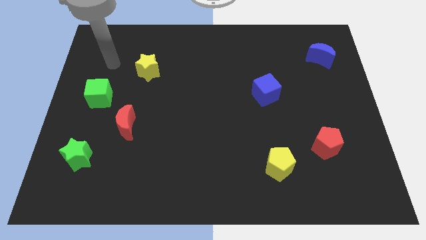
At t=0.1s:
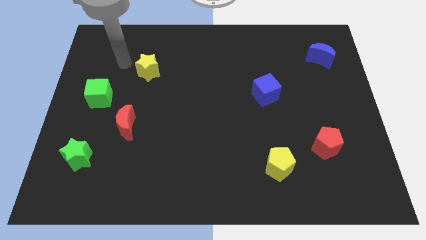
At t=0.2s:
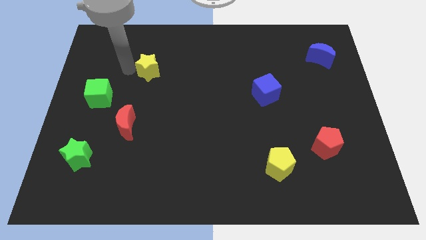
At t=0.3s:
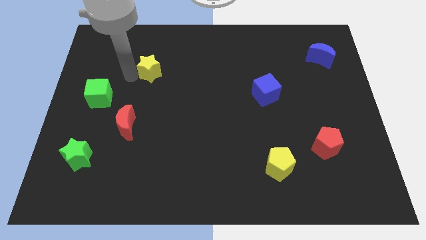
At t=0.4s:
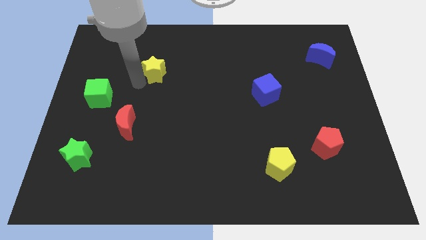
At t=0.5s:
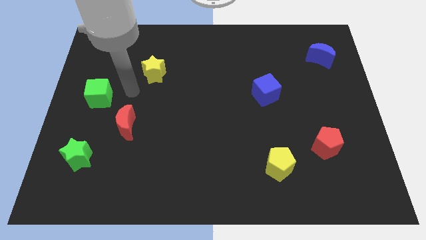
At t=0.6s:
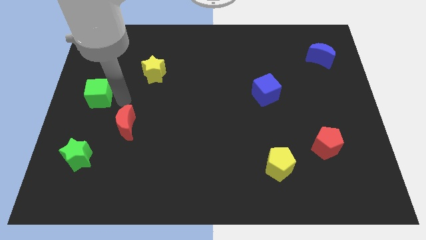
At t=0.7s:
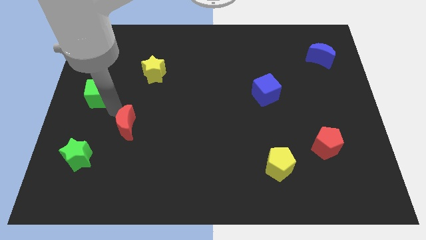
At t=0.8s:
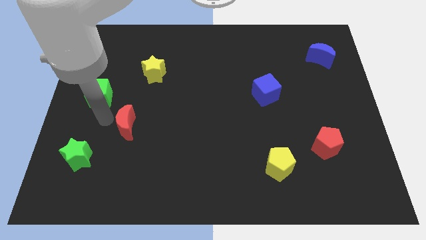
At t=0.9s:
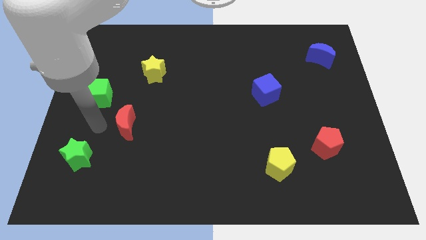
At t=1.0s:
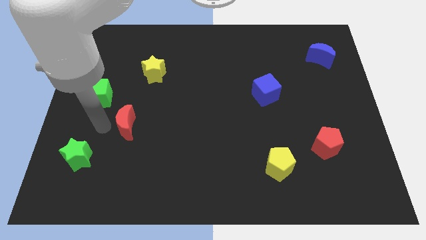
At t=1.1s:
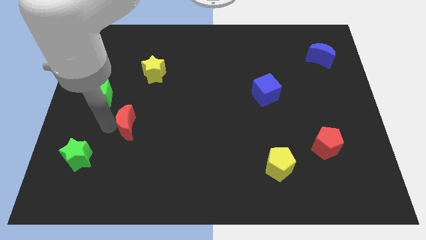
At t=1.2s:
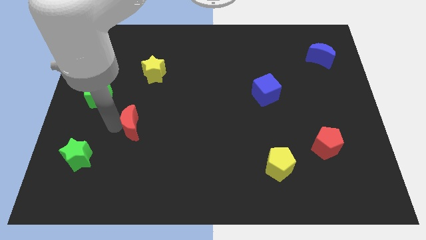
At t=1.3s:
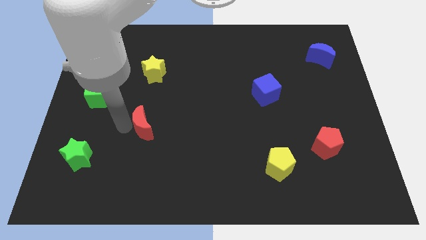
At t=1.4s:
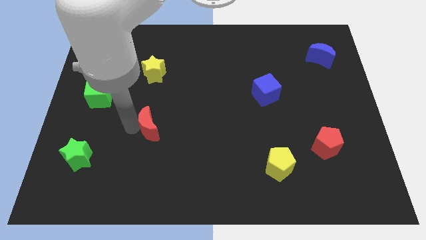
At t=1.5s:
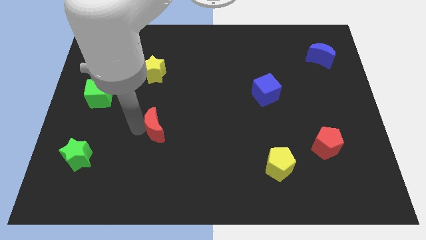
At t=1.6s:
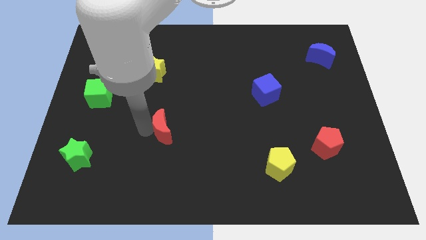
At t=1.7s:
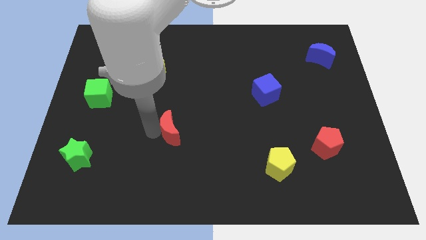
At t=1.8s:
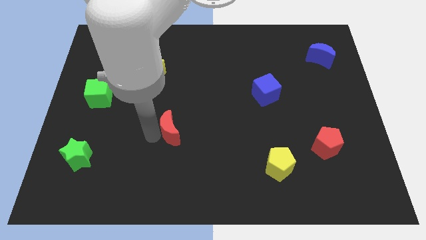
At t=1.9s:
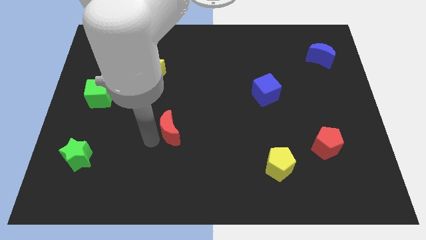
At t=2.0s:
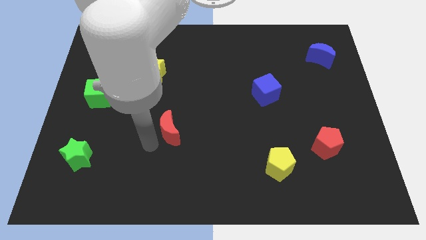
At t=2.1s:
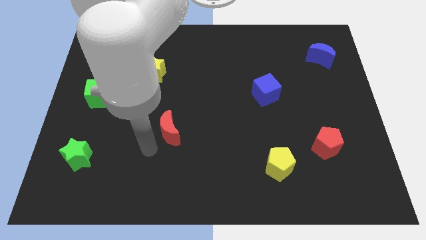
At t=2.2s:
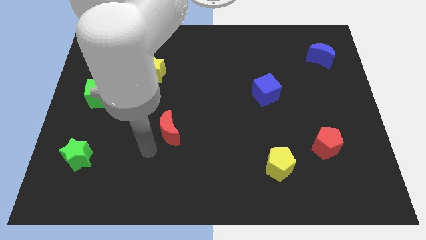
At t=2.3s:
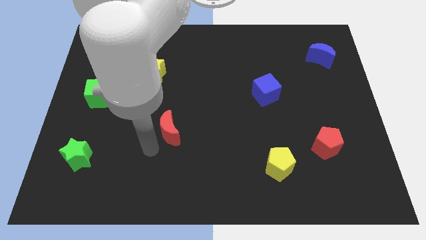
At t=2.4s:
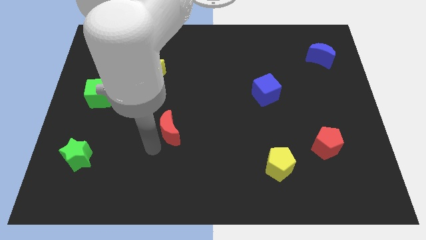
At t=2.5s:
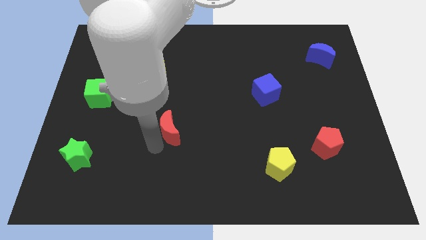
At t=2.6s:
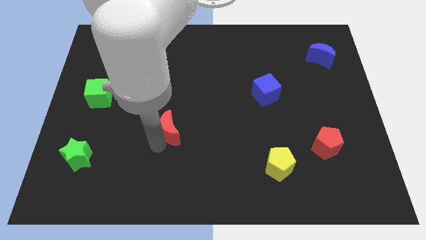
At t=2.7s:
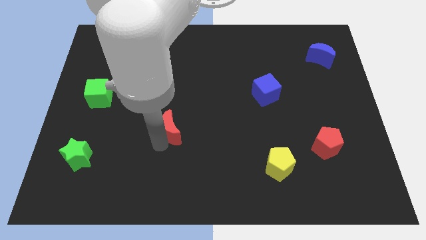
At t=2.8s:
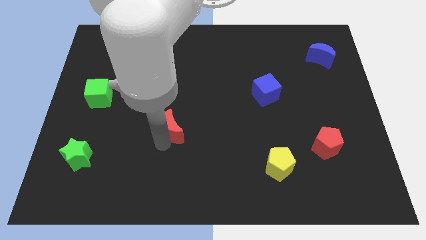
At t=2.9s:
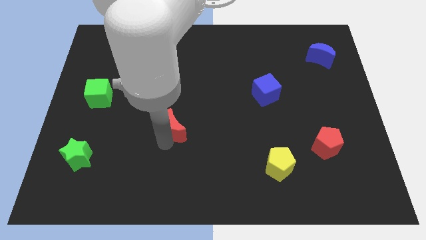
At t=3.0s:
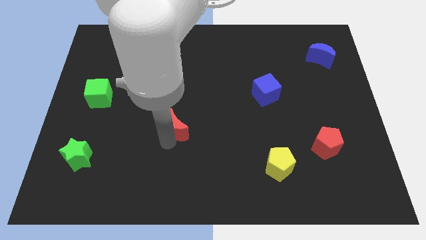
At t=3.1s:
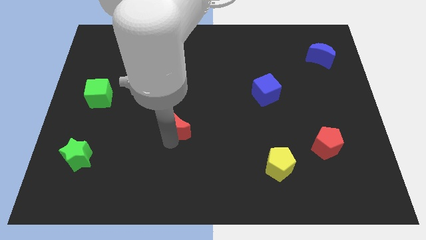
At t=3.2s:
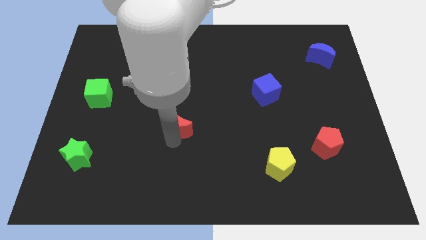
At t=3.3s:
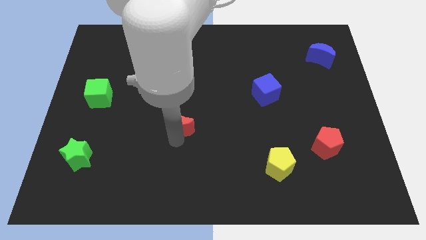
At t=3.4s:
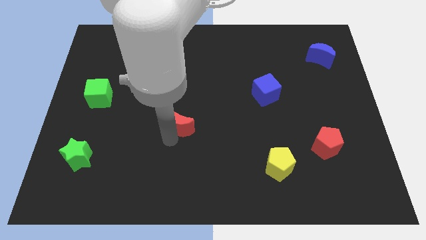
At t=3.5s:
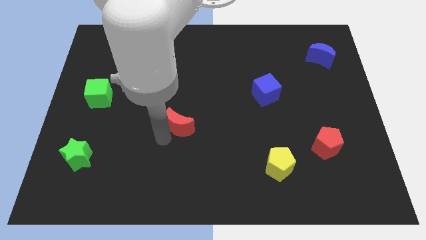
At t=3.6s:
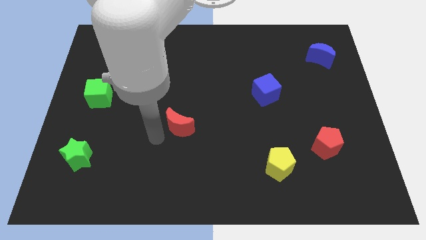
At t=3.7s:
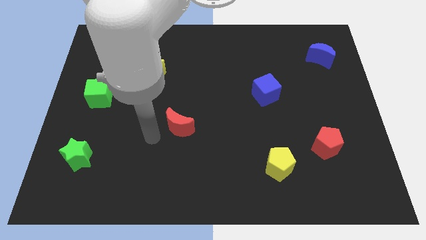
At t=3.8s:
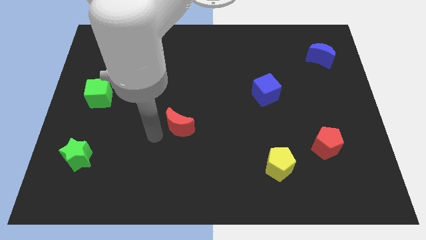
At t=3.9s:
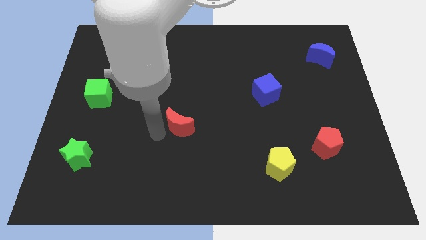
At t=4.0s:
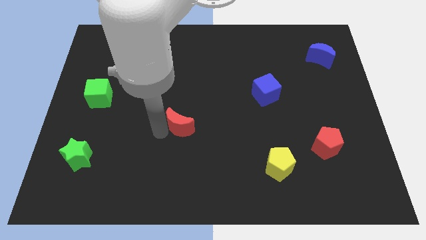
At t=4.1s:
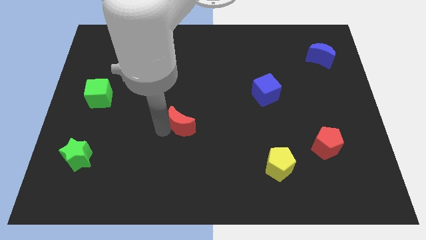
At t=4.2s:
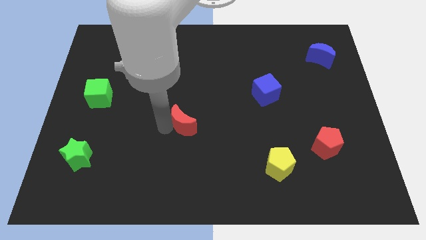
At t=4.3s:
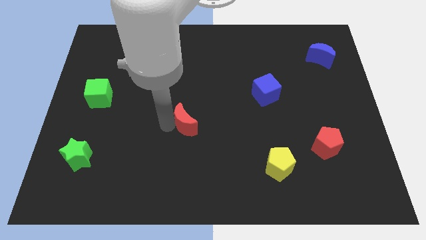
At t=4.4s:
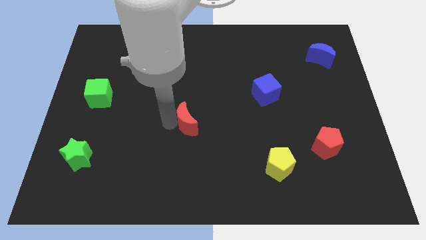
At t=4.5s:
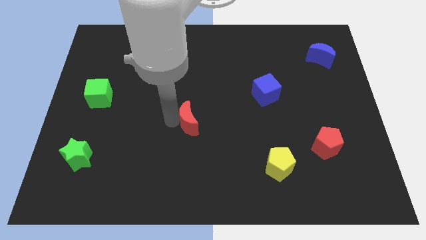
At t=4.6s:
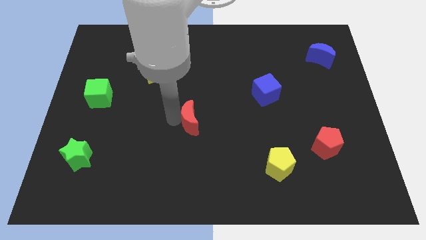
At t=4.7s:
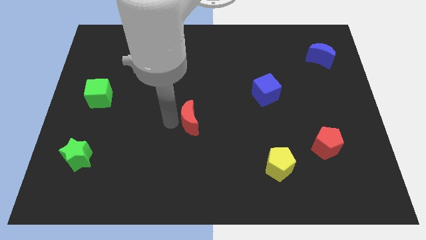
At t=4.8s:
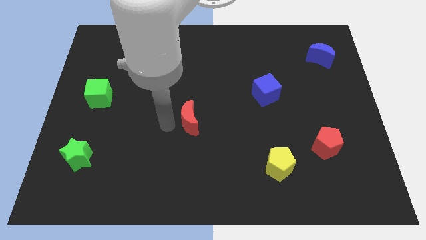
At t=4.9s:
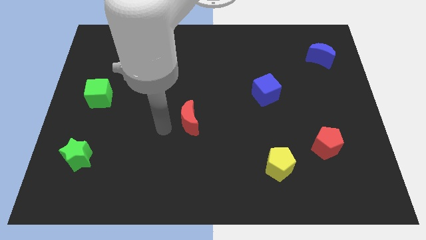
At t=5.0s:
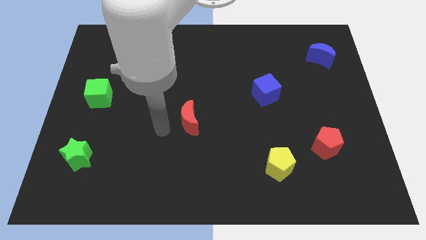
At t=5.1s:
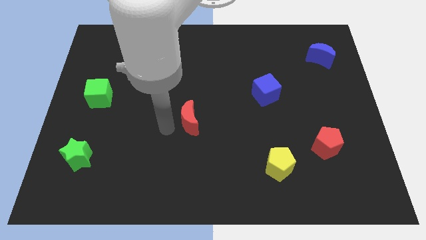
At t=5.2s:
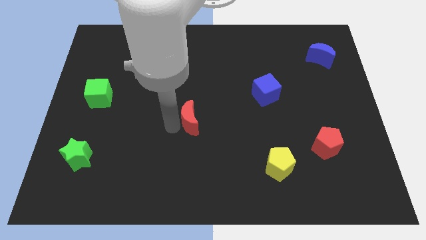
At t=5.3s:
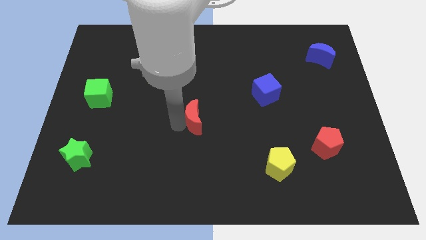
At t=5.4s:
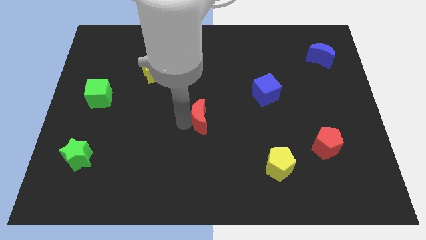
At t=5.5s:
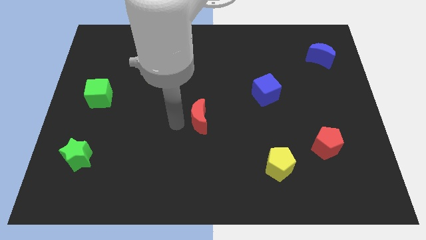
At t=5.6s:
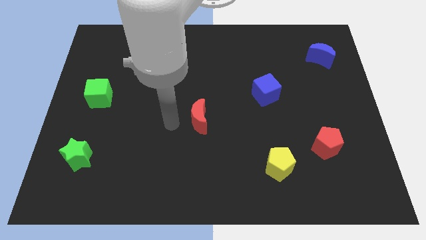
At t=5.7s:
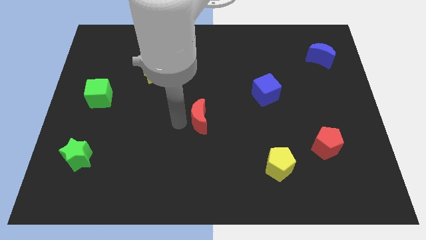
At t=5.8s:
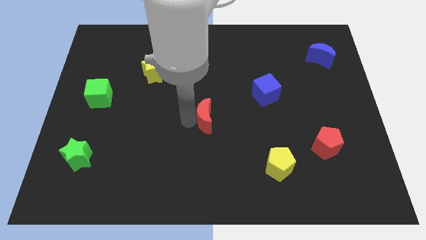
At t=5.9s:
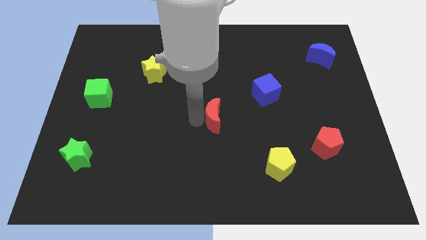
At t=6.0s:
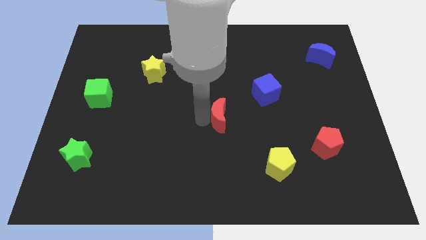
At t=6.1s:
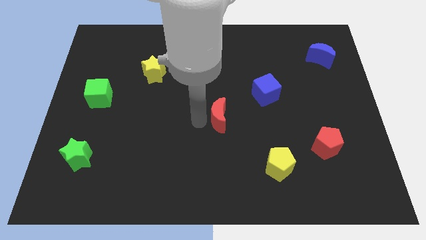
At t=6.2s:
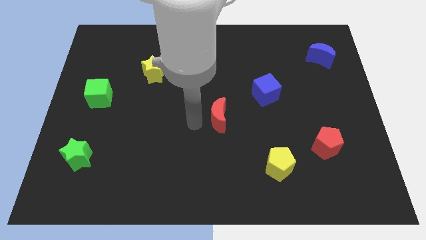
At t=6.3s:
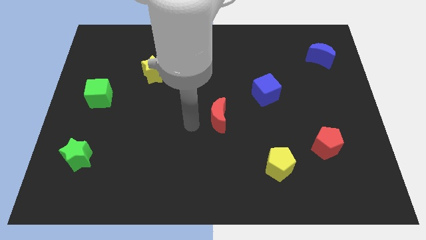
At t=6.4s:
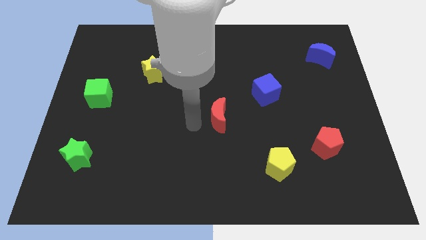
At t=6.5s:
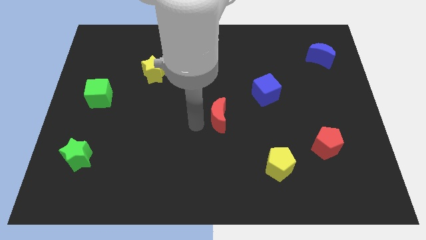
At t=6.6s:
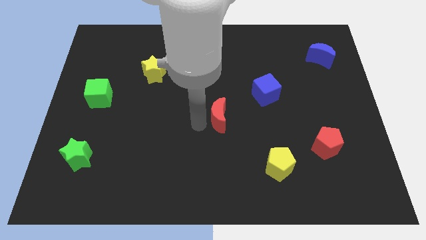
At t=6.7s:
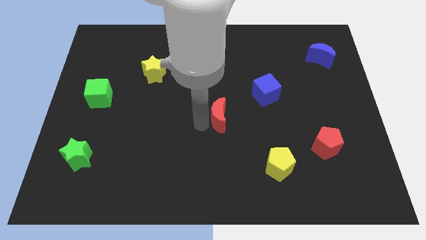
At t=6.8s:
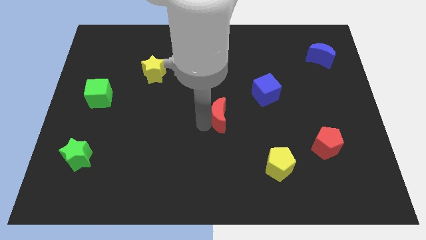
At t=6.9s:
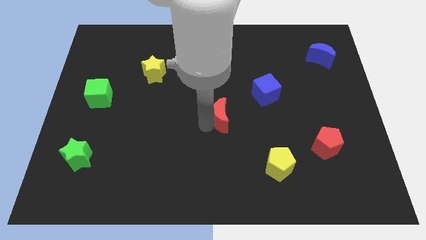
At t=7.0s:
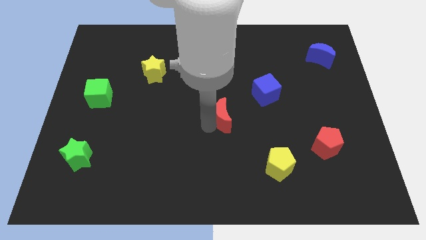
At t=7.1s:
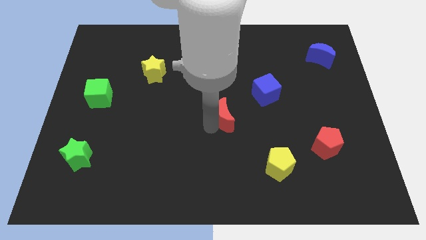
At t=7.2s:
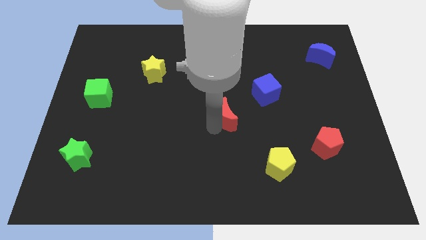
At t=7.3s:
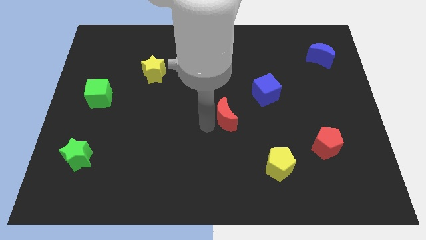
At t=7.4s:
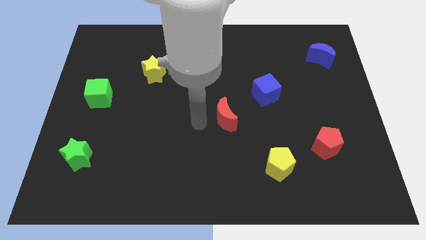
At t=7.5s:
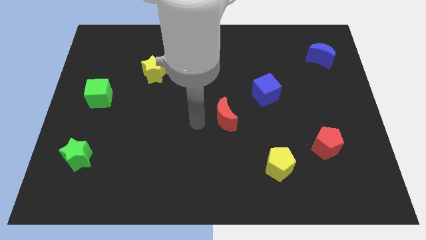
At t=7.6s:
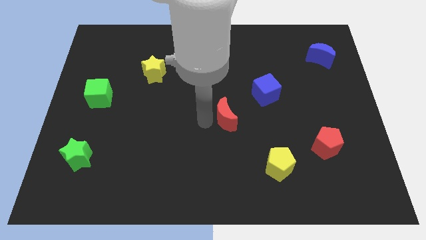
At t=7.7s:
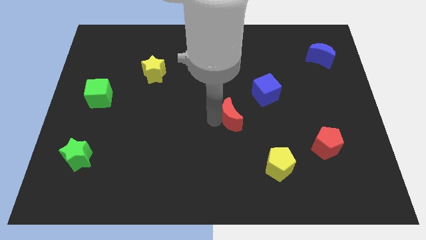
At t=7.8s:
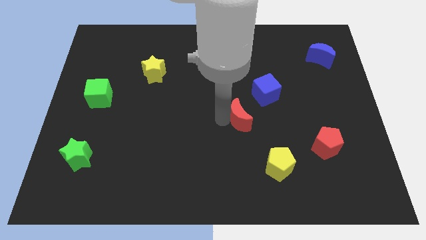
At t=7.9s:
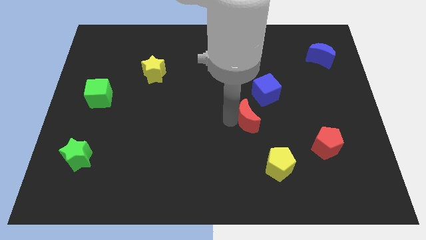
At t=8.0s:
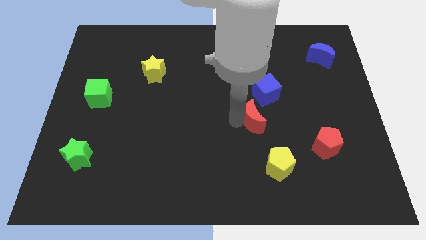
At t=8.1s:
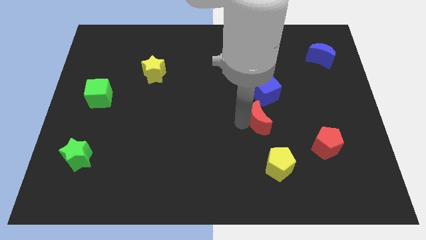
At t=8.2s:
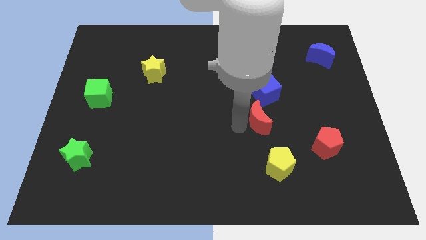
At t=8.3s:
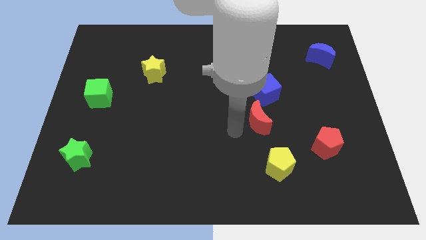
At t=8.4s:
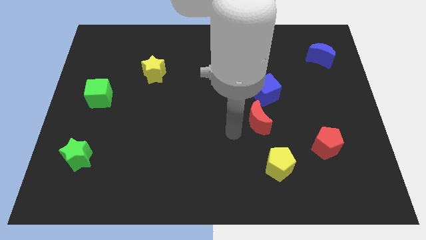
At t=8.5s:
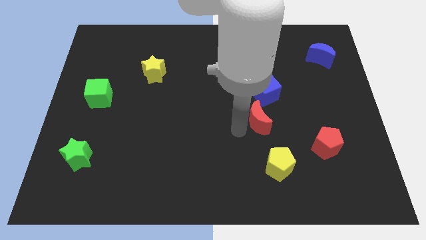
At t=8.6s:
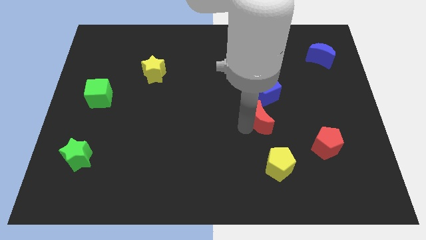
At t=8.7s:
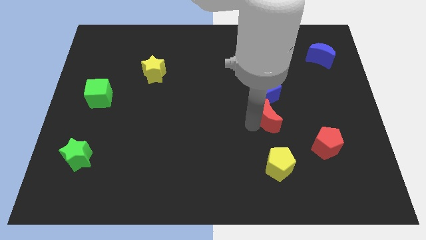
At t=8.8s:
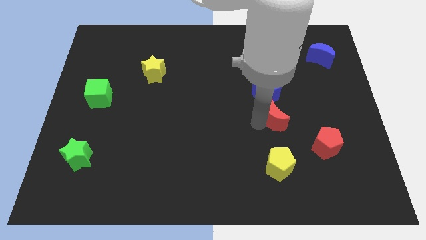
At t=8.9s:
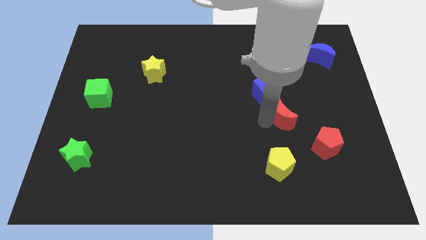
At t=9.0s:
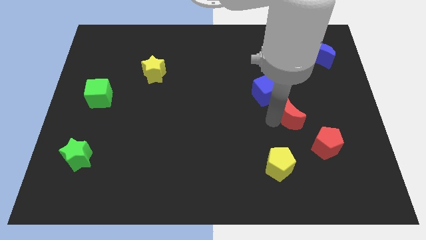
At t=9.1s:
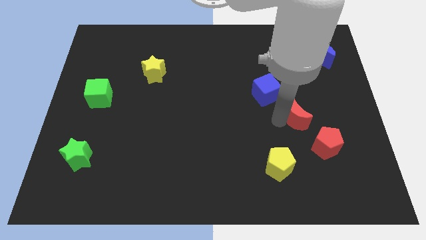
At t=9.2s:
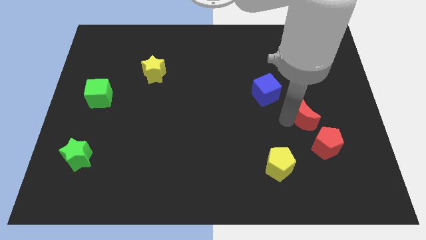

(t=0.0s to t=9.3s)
put the red moon to the top of the red pentagon
